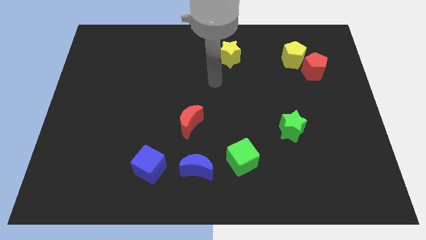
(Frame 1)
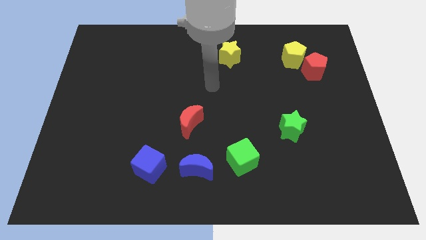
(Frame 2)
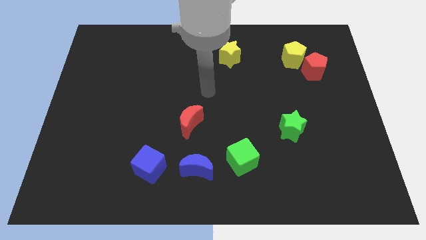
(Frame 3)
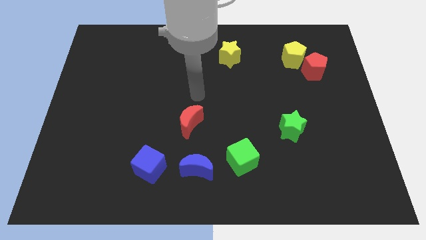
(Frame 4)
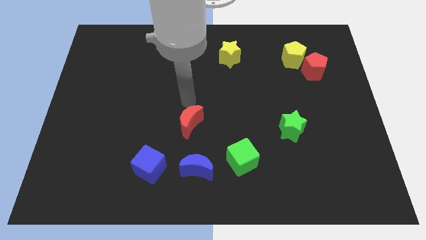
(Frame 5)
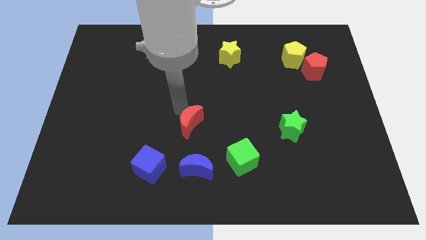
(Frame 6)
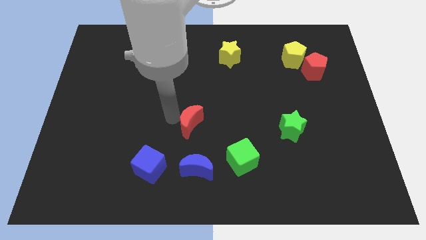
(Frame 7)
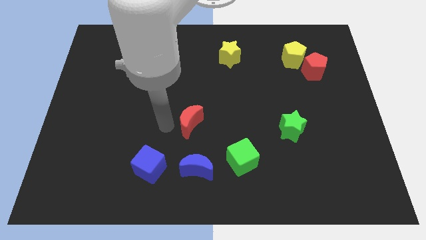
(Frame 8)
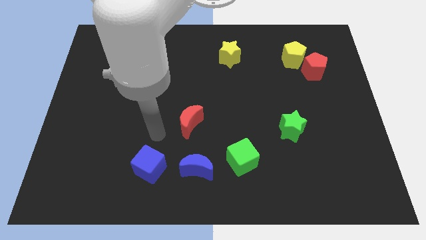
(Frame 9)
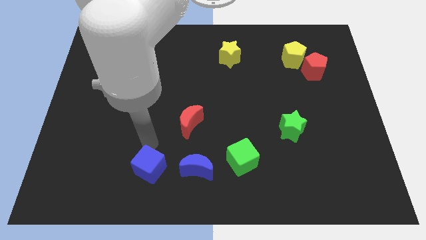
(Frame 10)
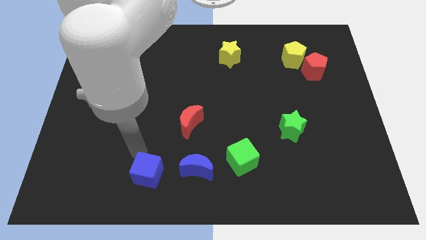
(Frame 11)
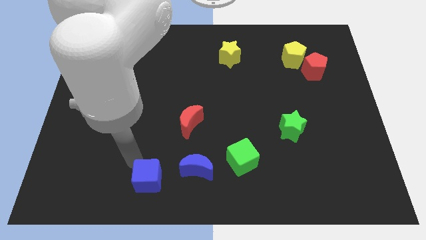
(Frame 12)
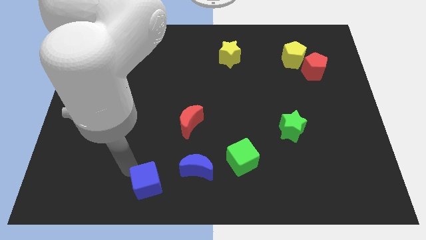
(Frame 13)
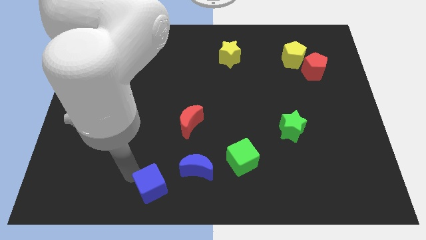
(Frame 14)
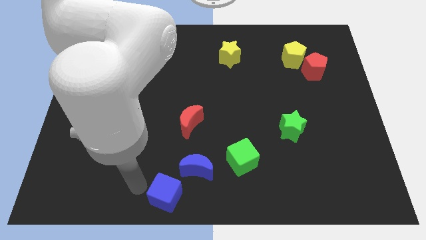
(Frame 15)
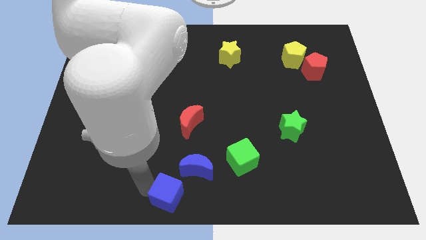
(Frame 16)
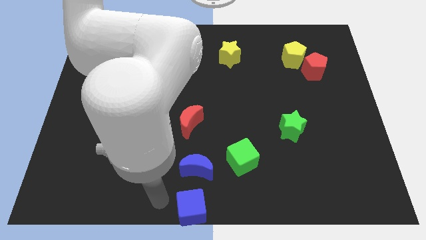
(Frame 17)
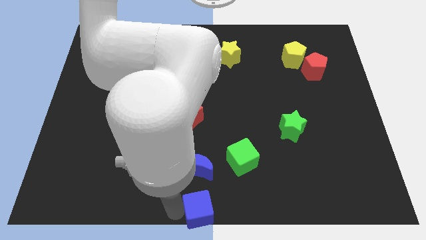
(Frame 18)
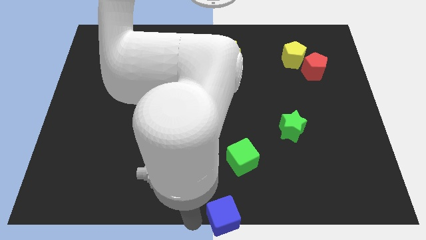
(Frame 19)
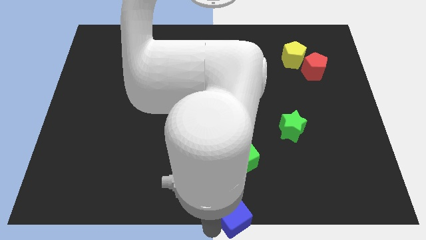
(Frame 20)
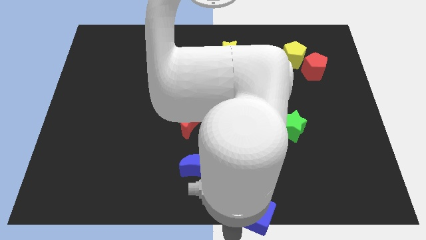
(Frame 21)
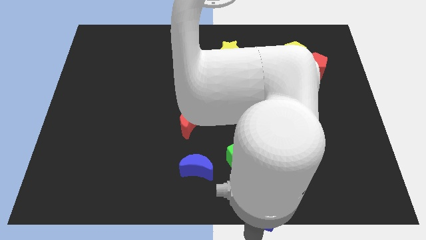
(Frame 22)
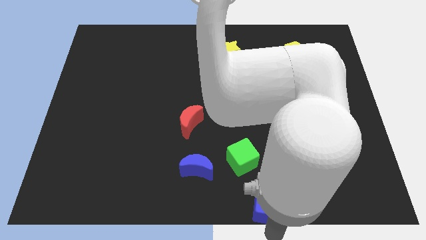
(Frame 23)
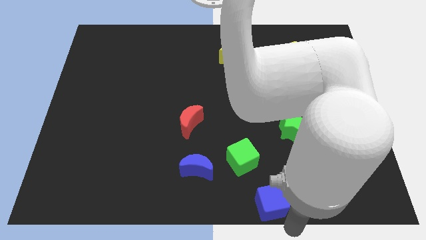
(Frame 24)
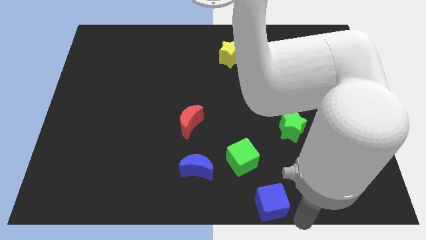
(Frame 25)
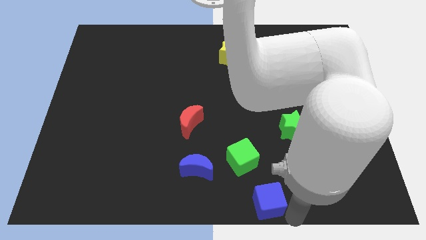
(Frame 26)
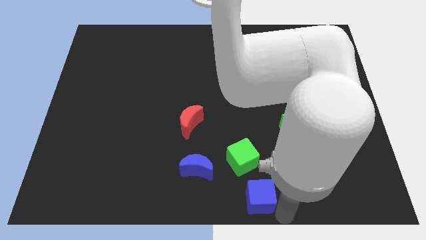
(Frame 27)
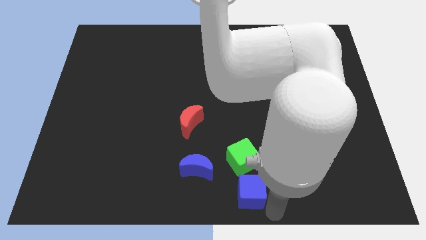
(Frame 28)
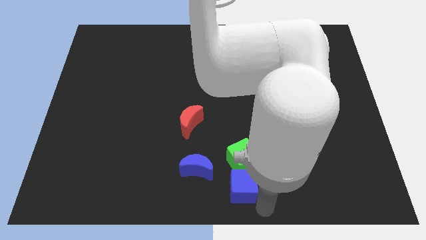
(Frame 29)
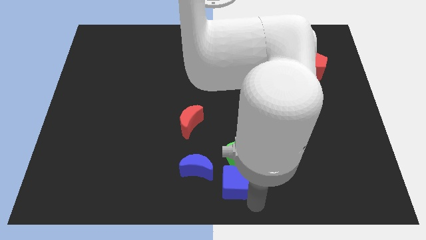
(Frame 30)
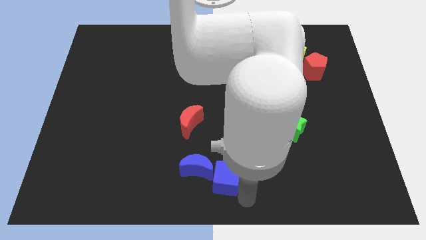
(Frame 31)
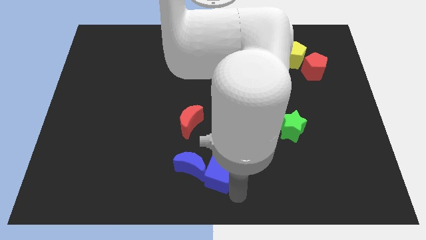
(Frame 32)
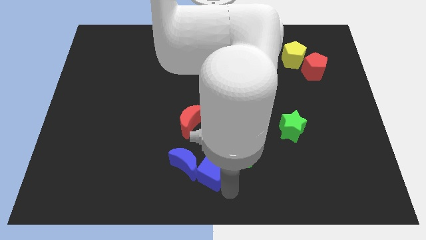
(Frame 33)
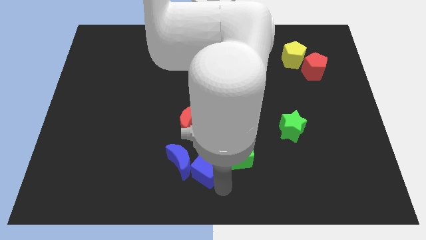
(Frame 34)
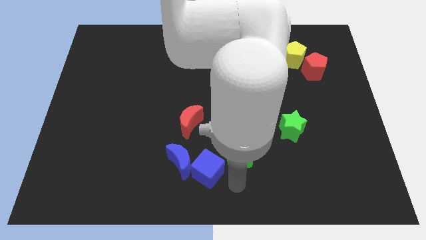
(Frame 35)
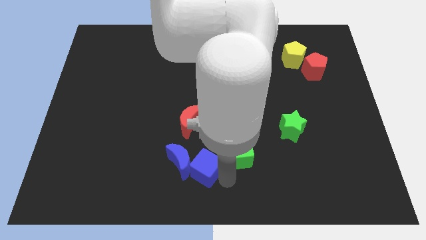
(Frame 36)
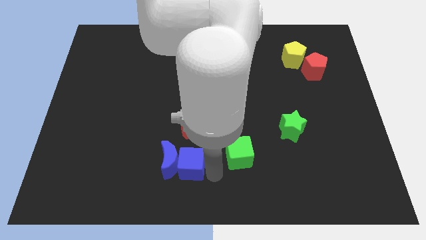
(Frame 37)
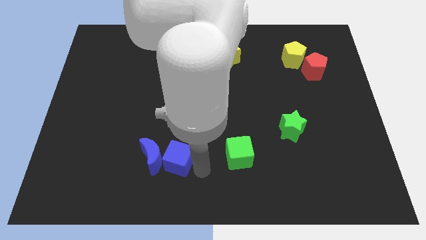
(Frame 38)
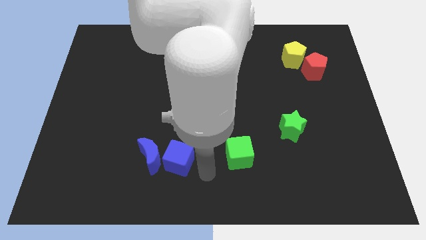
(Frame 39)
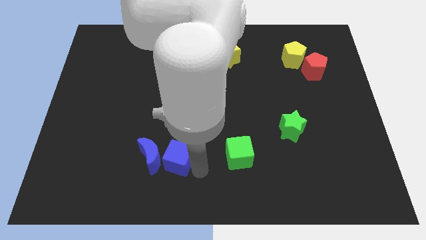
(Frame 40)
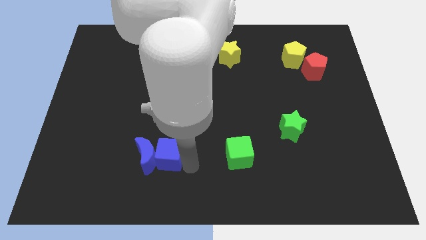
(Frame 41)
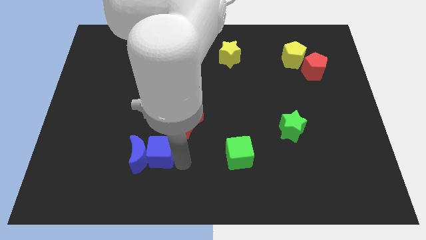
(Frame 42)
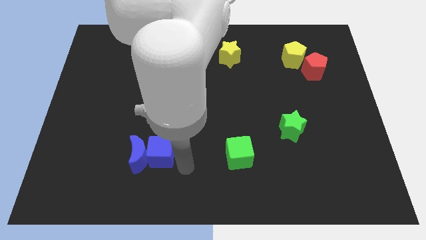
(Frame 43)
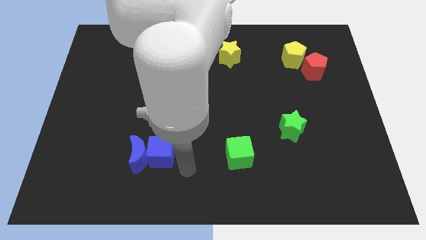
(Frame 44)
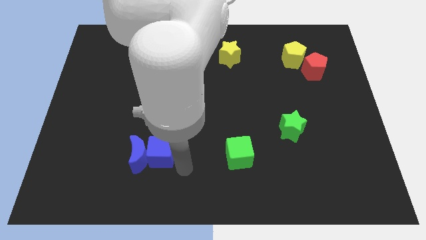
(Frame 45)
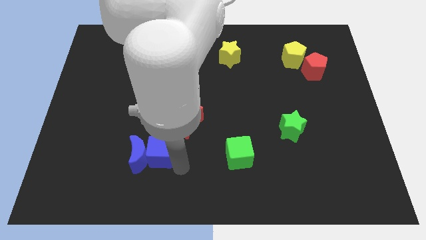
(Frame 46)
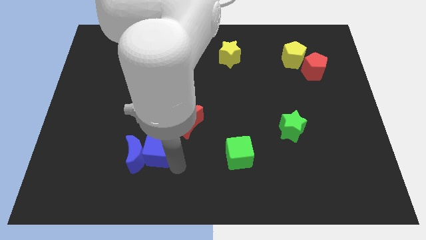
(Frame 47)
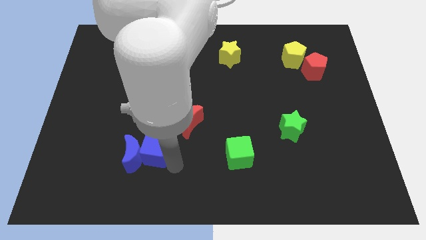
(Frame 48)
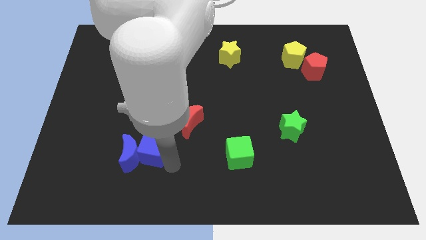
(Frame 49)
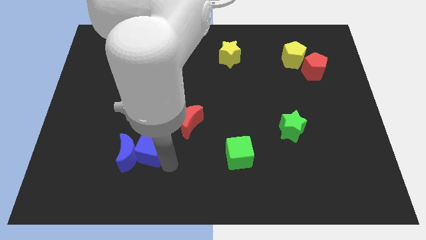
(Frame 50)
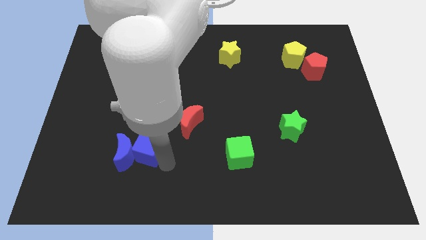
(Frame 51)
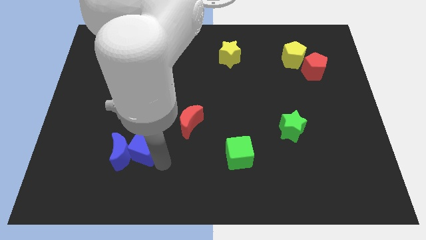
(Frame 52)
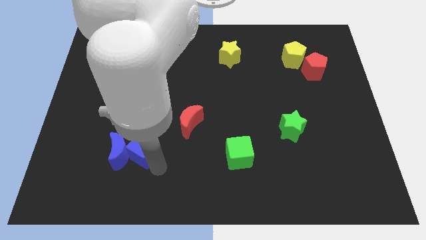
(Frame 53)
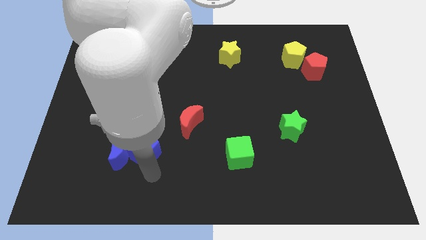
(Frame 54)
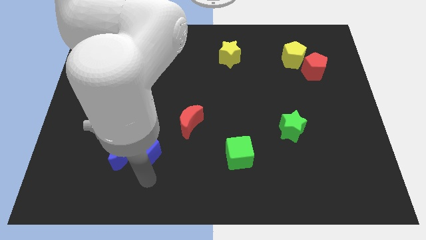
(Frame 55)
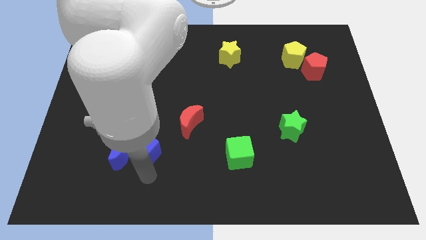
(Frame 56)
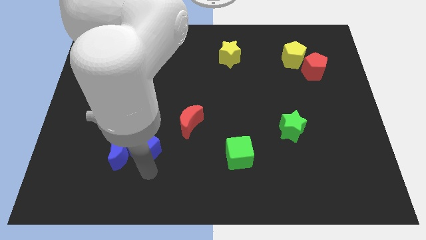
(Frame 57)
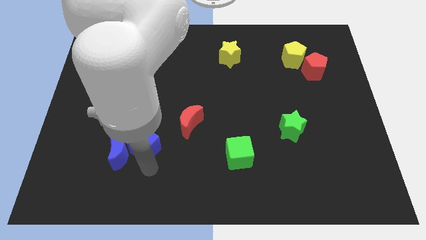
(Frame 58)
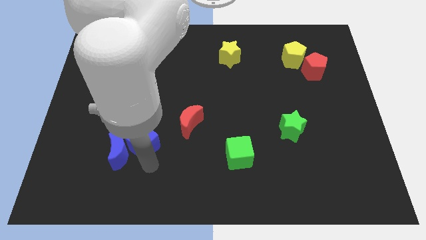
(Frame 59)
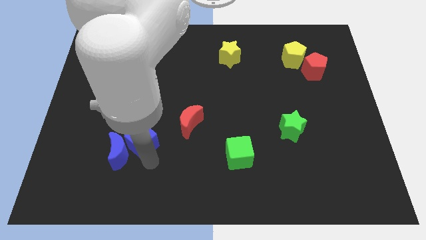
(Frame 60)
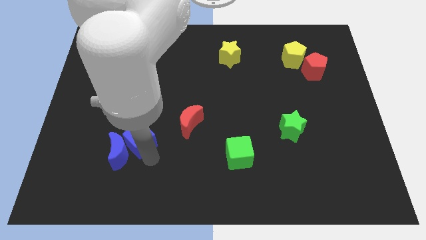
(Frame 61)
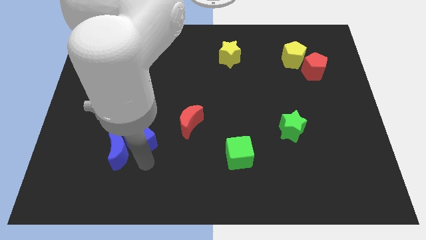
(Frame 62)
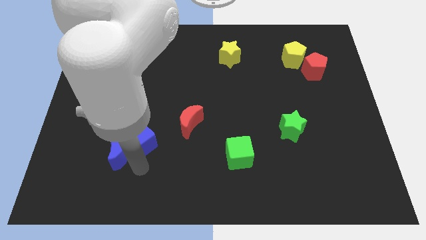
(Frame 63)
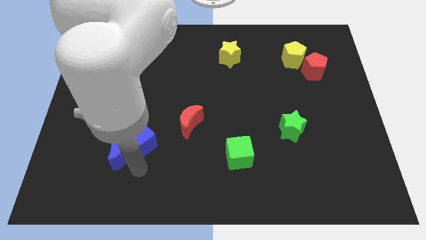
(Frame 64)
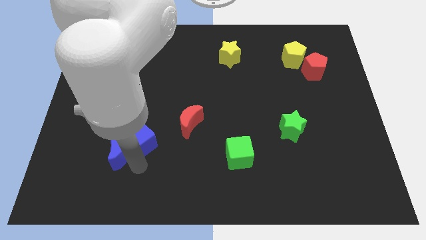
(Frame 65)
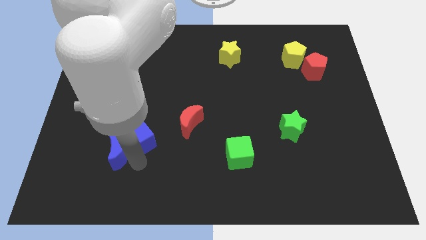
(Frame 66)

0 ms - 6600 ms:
move the blue cube to the left of the red moon

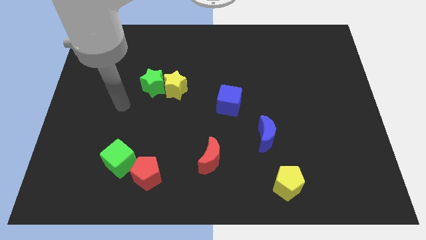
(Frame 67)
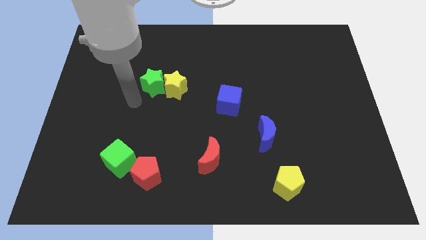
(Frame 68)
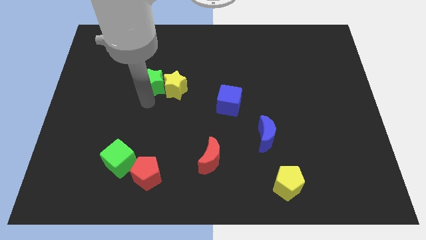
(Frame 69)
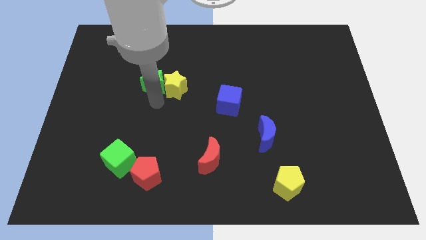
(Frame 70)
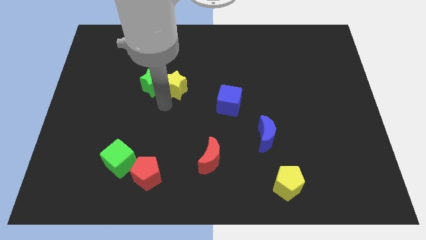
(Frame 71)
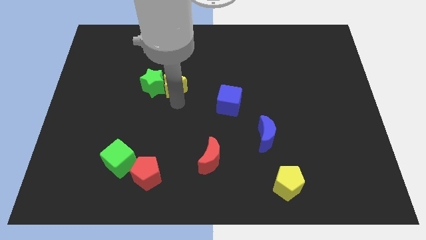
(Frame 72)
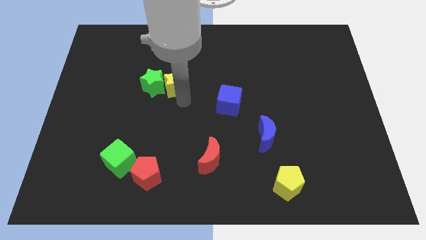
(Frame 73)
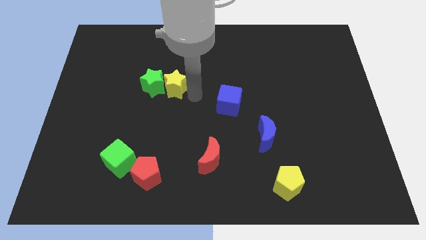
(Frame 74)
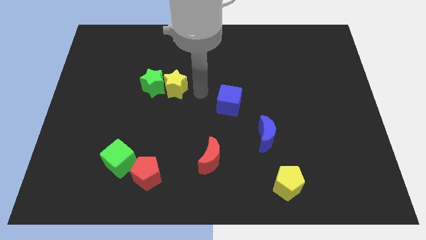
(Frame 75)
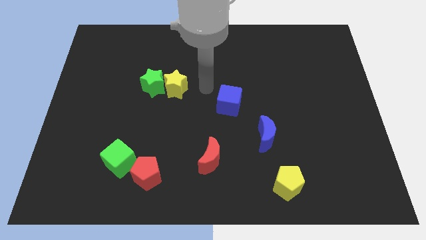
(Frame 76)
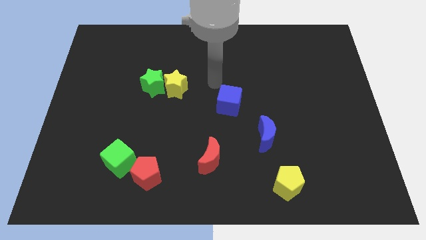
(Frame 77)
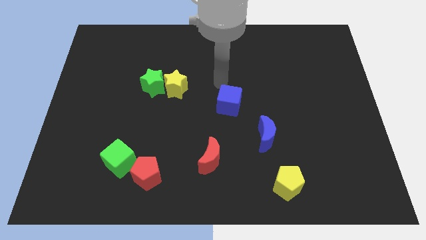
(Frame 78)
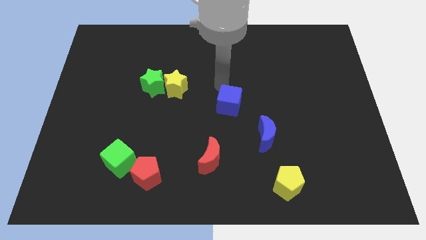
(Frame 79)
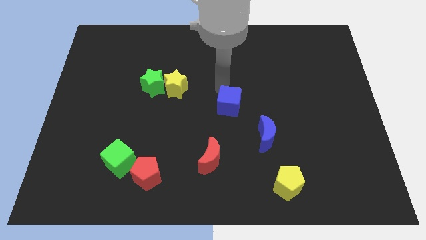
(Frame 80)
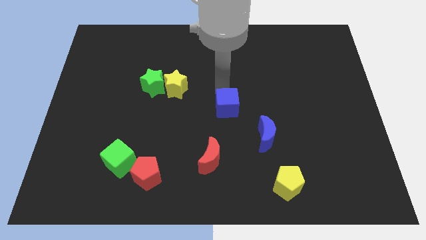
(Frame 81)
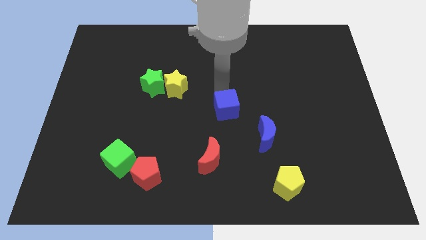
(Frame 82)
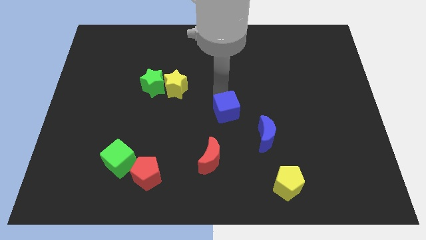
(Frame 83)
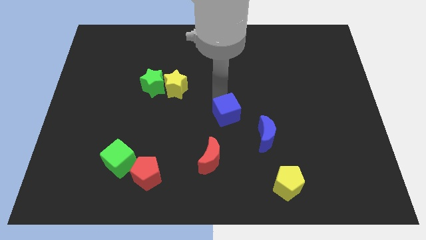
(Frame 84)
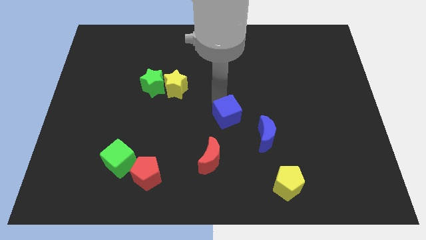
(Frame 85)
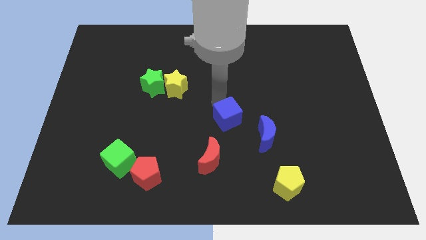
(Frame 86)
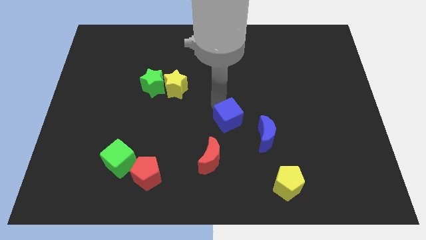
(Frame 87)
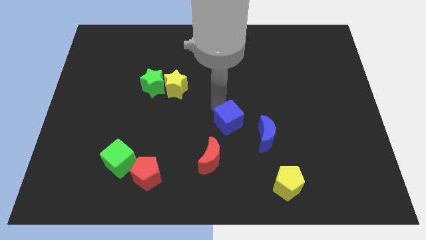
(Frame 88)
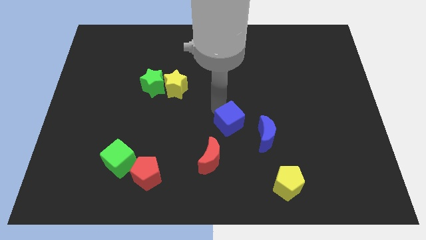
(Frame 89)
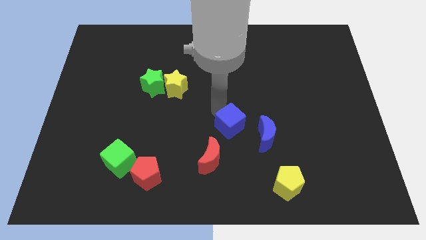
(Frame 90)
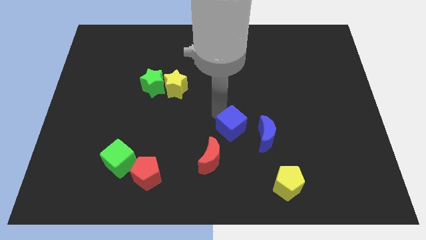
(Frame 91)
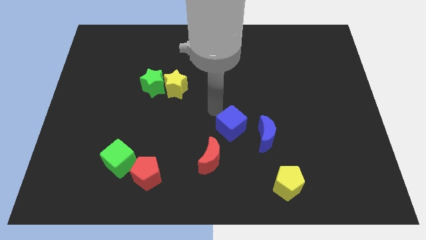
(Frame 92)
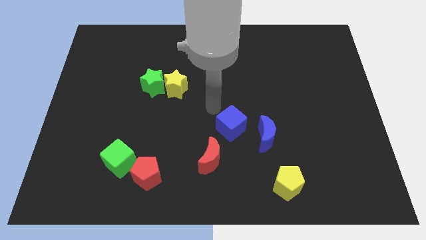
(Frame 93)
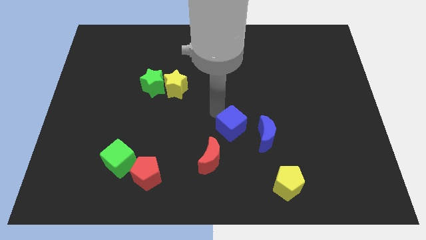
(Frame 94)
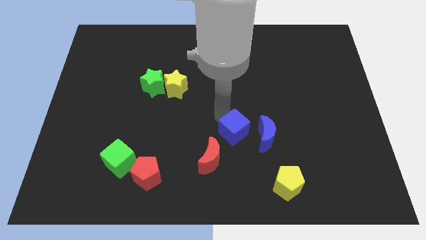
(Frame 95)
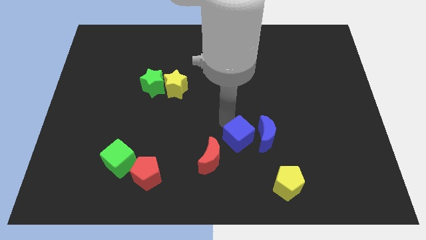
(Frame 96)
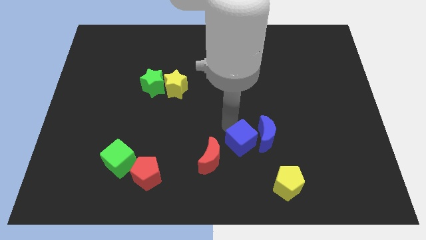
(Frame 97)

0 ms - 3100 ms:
slide the blue cube to the right of the red moon
